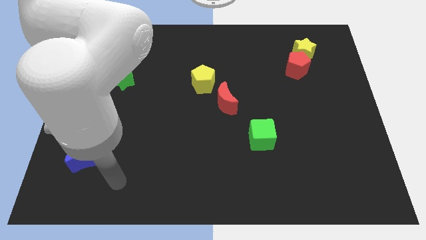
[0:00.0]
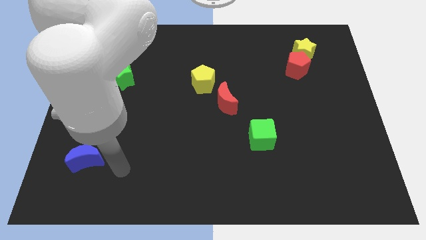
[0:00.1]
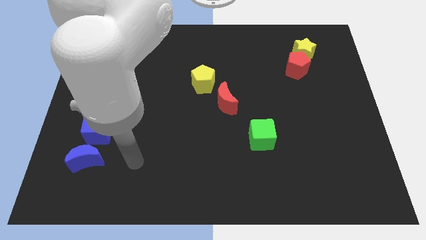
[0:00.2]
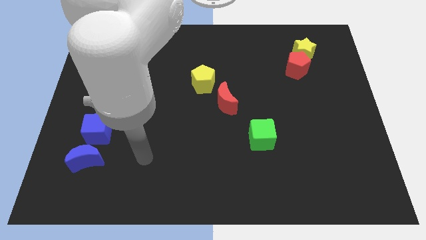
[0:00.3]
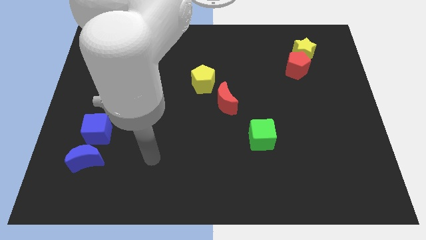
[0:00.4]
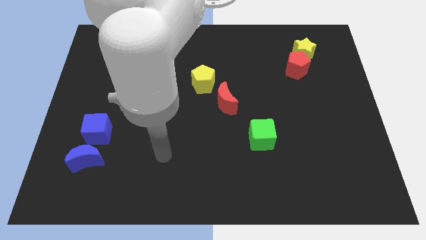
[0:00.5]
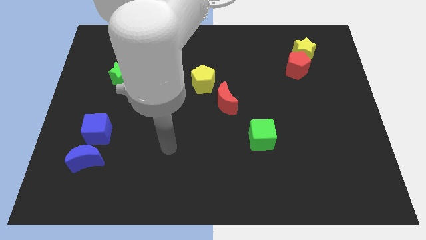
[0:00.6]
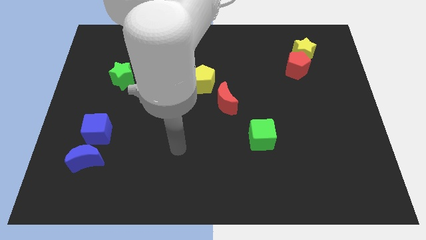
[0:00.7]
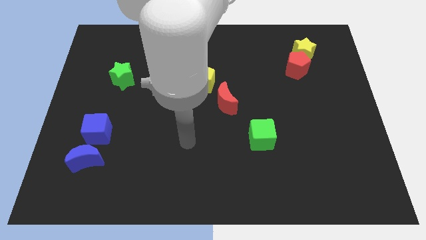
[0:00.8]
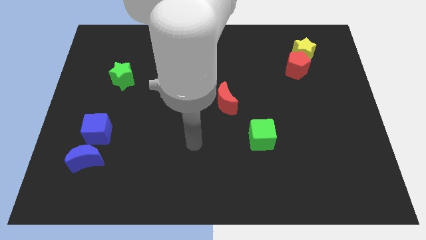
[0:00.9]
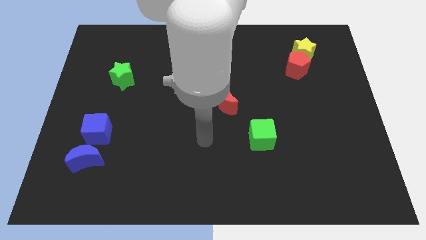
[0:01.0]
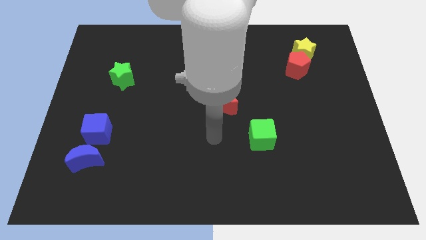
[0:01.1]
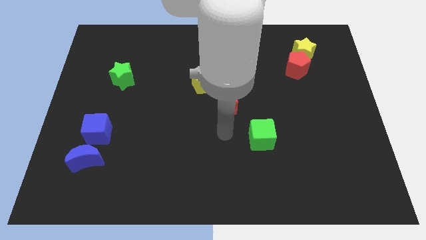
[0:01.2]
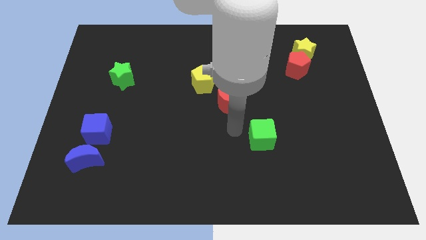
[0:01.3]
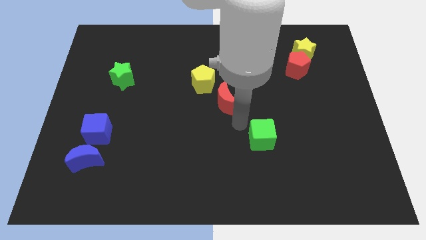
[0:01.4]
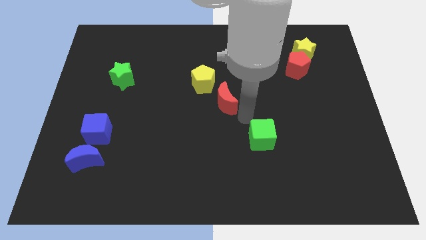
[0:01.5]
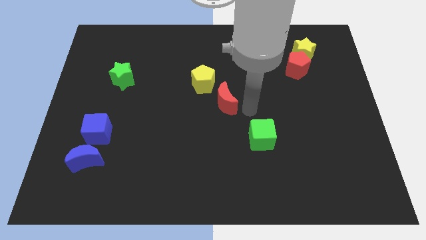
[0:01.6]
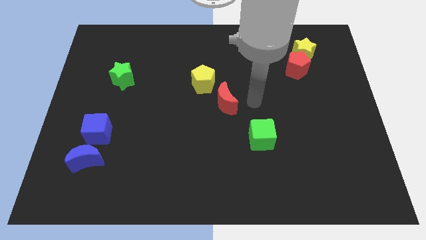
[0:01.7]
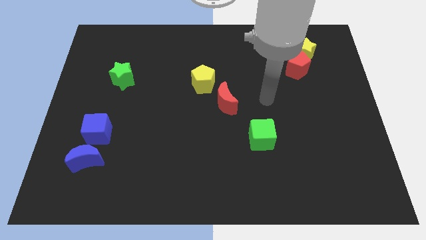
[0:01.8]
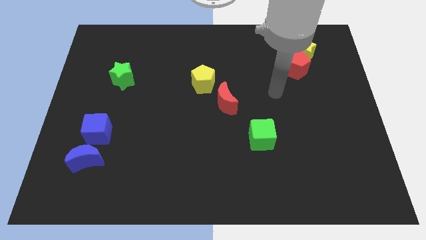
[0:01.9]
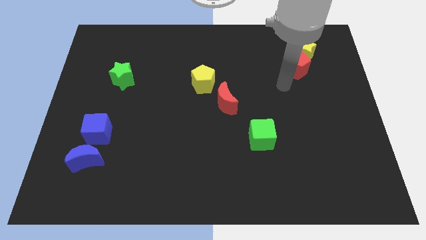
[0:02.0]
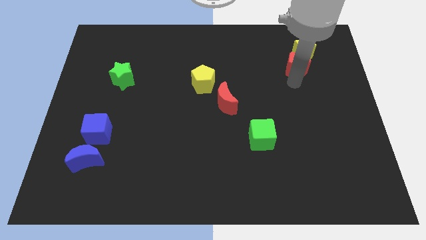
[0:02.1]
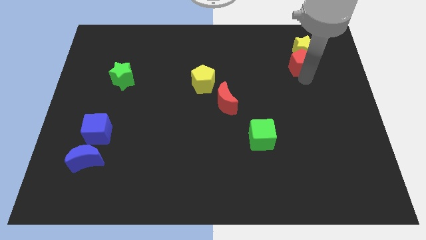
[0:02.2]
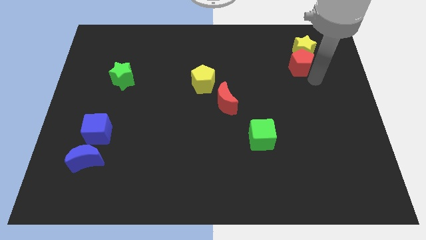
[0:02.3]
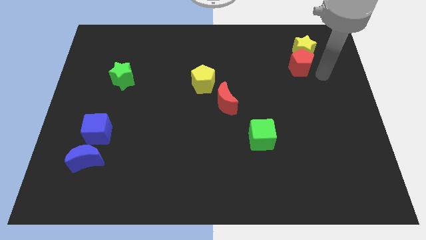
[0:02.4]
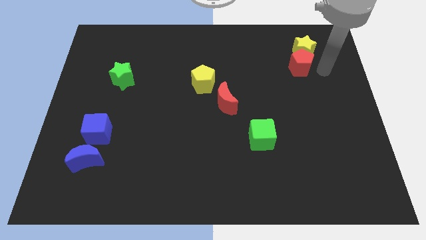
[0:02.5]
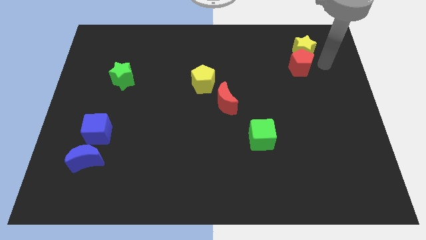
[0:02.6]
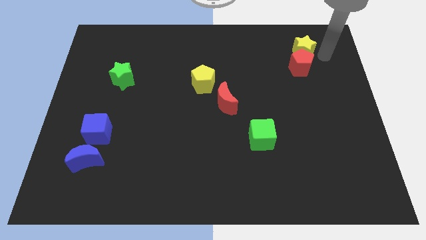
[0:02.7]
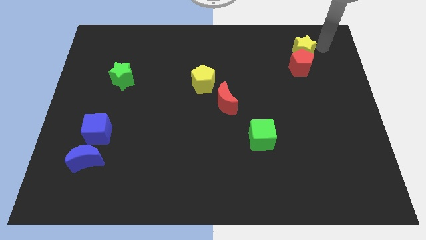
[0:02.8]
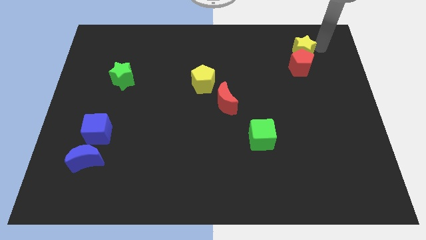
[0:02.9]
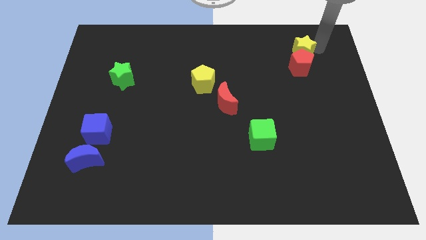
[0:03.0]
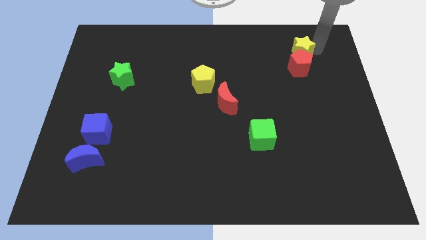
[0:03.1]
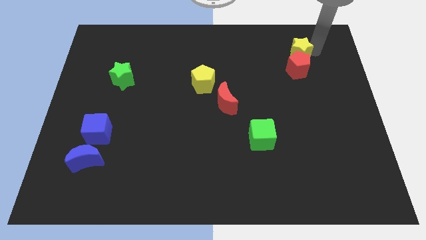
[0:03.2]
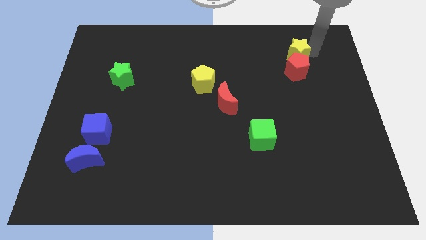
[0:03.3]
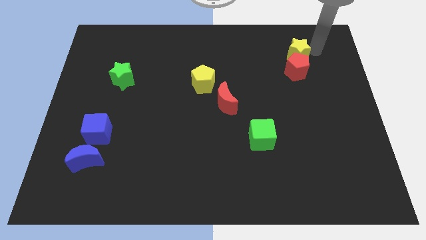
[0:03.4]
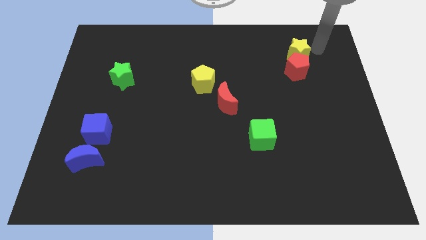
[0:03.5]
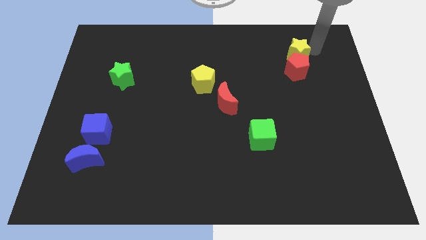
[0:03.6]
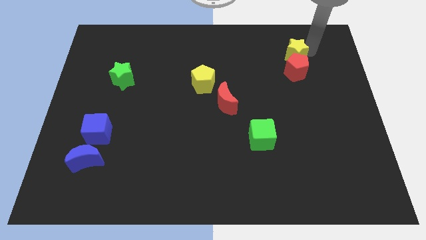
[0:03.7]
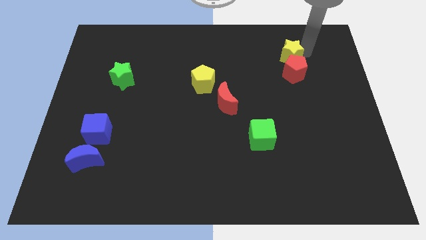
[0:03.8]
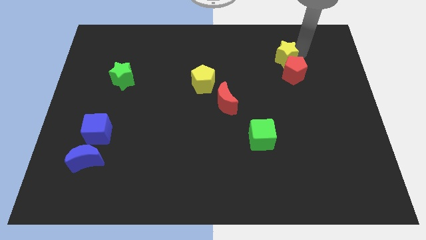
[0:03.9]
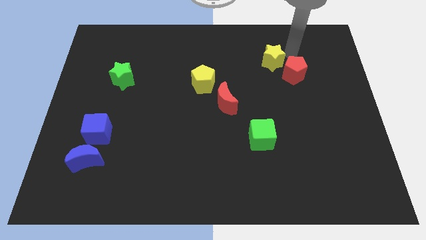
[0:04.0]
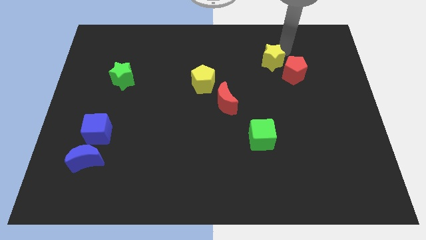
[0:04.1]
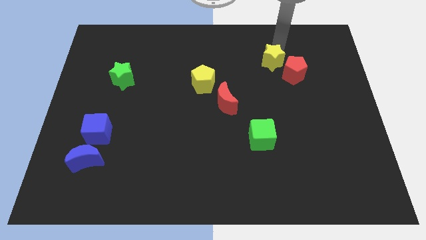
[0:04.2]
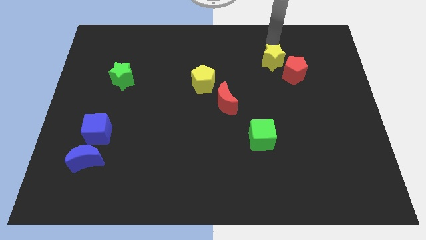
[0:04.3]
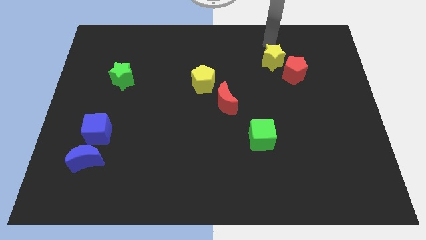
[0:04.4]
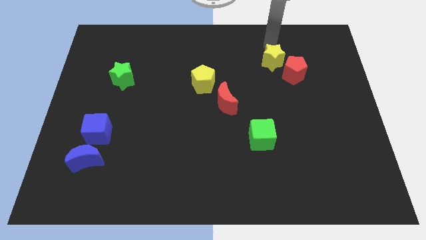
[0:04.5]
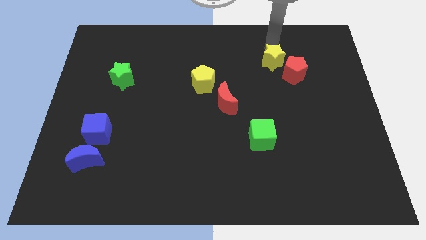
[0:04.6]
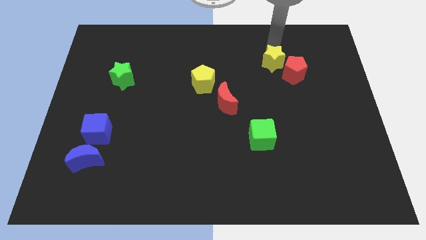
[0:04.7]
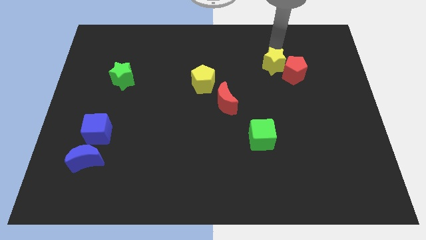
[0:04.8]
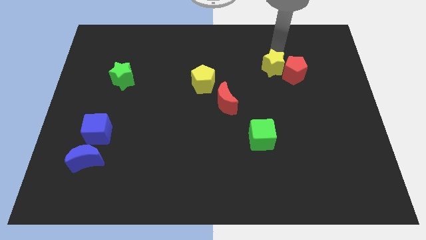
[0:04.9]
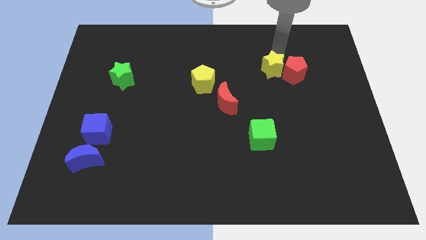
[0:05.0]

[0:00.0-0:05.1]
put the yellow star to the bottom left of the red pentagon

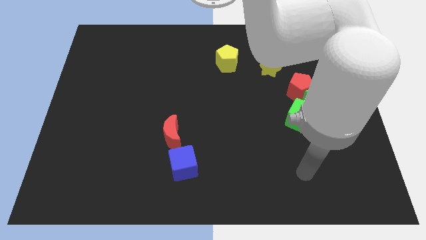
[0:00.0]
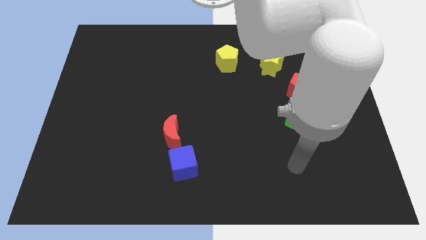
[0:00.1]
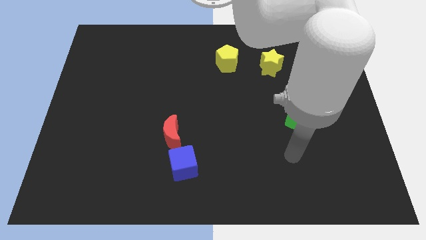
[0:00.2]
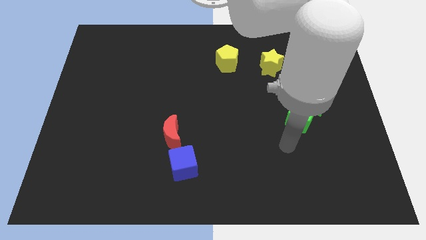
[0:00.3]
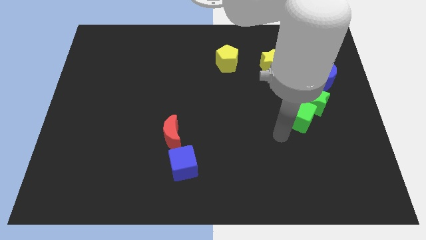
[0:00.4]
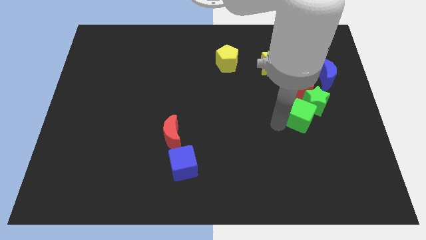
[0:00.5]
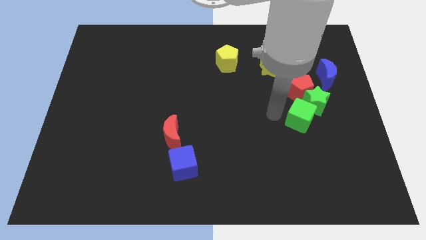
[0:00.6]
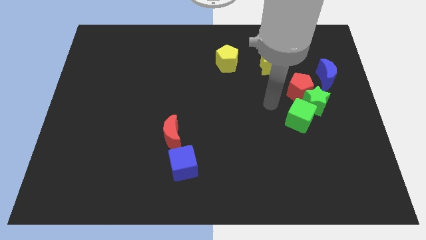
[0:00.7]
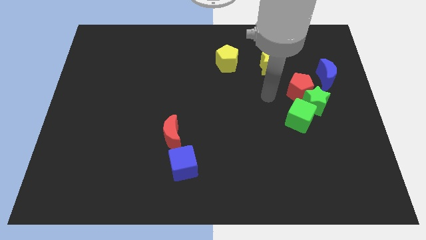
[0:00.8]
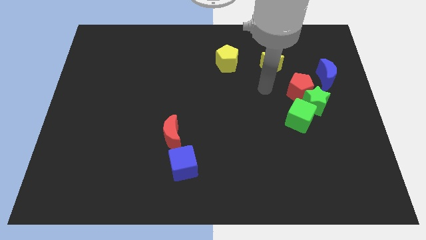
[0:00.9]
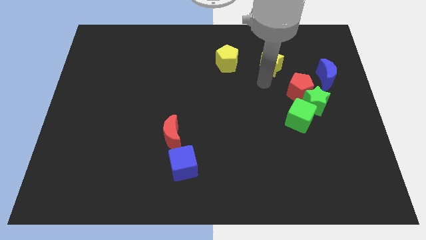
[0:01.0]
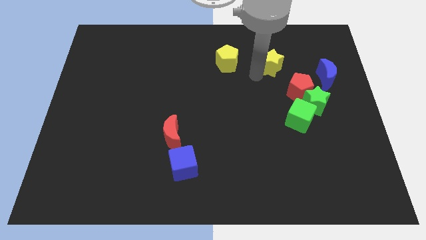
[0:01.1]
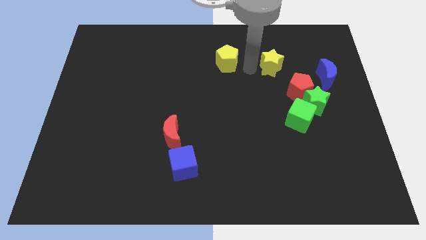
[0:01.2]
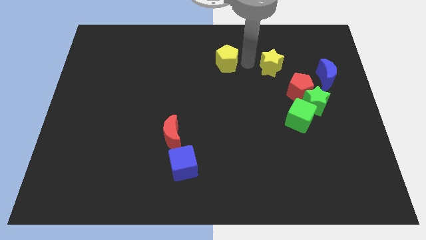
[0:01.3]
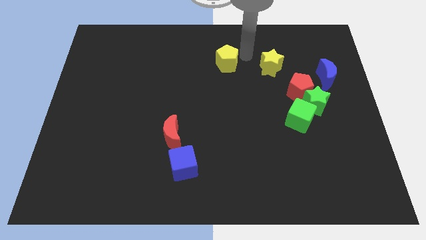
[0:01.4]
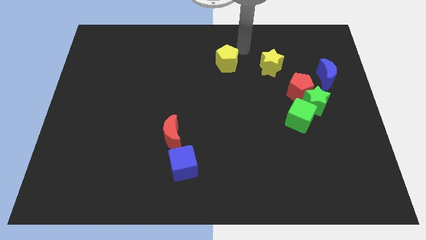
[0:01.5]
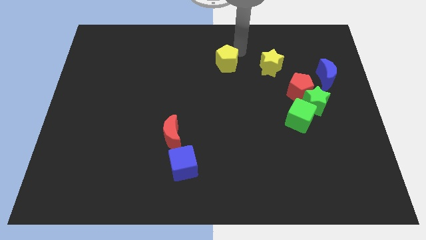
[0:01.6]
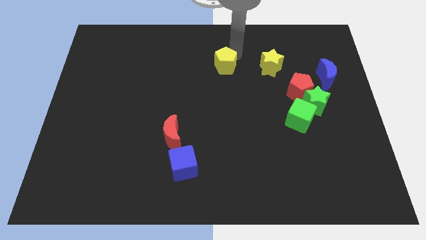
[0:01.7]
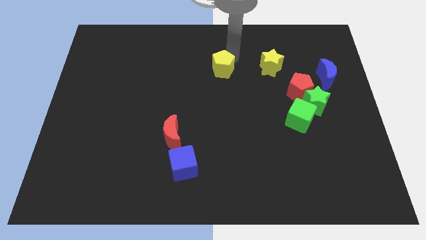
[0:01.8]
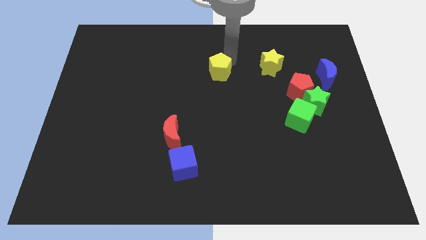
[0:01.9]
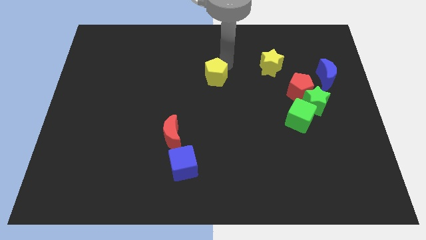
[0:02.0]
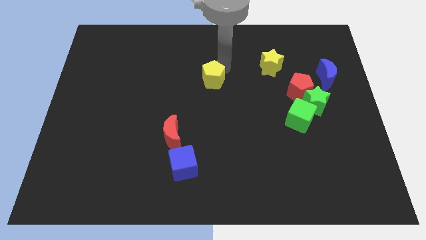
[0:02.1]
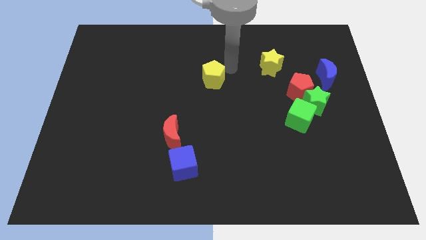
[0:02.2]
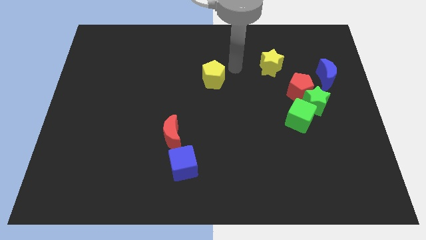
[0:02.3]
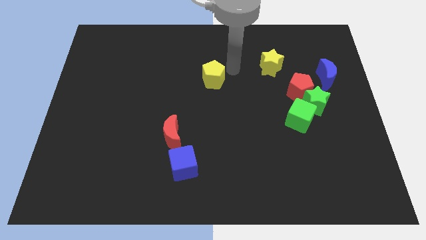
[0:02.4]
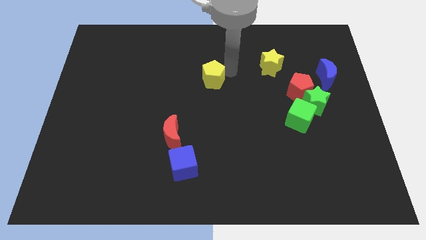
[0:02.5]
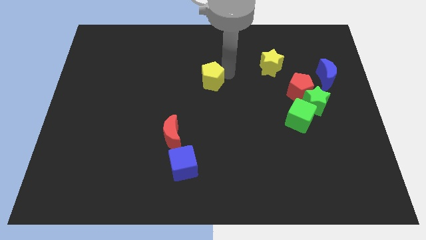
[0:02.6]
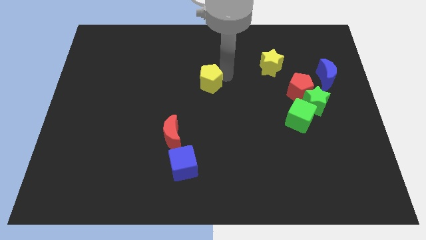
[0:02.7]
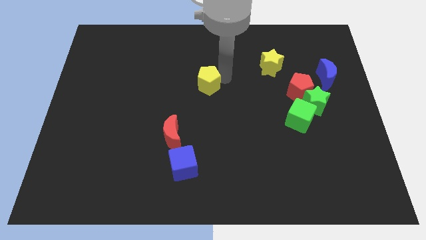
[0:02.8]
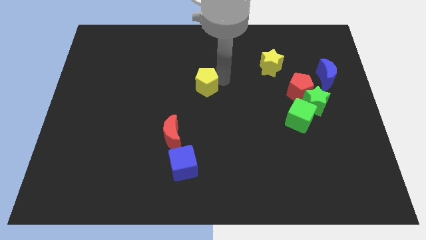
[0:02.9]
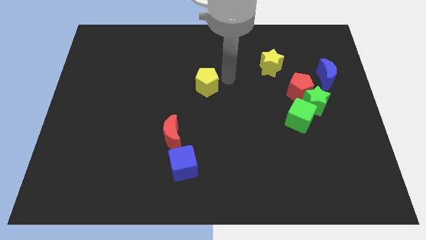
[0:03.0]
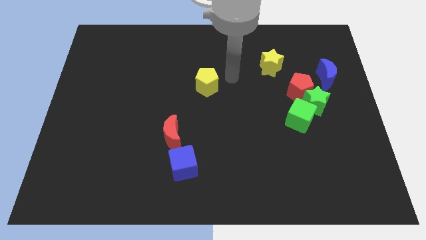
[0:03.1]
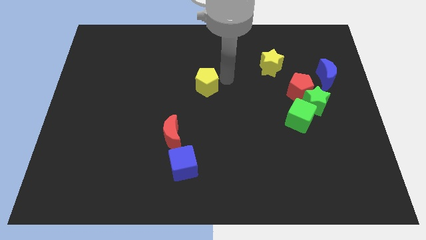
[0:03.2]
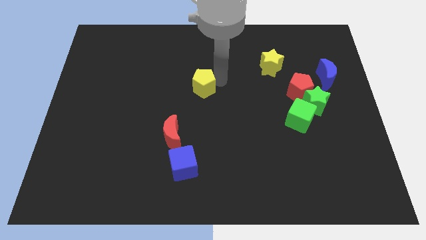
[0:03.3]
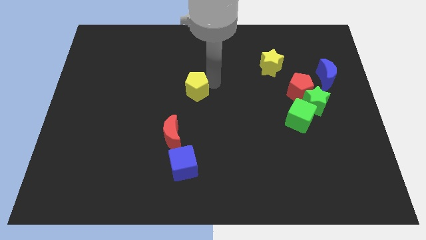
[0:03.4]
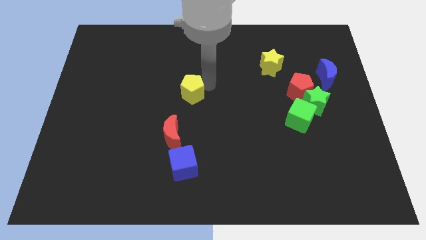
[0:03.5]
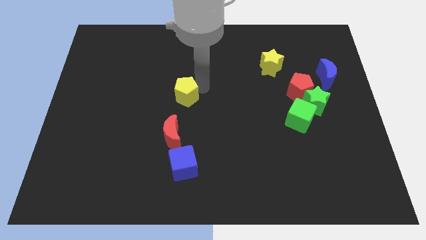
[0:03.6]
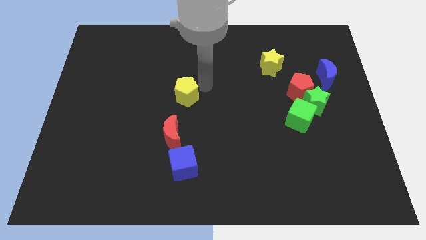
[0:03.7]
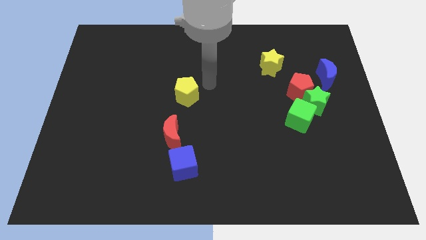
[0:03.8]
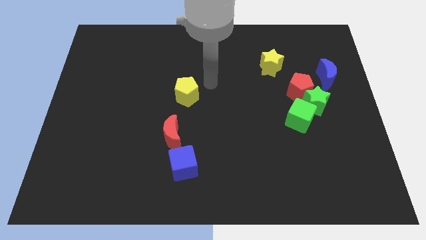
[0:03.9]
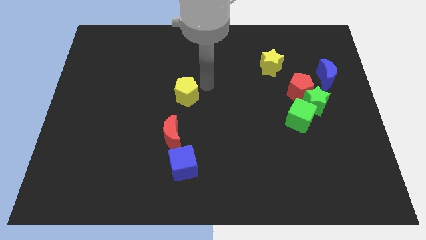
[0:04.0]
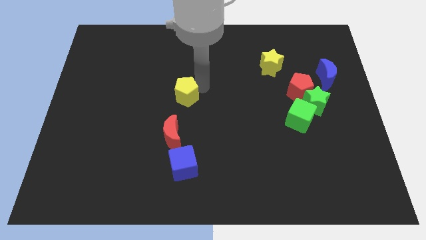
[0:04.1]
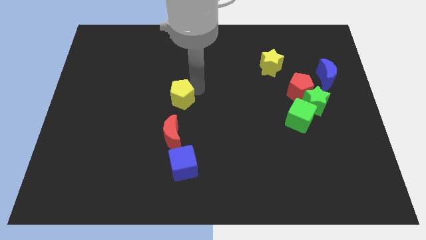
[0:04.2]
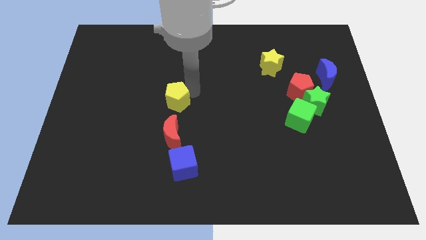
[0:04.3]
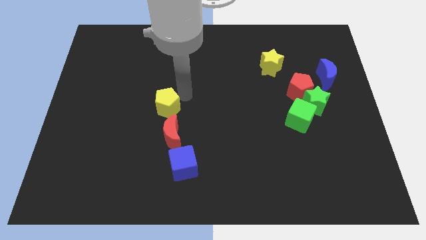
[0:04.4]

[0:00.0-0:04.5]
put the yellow pentagon to the top left of the red moon
